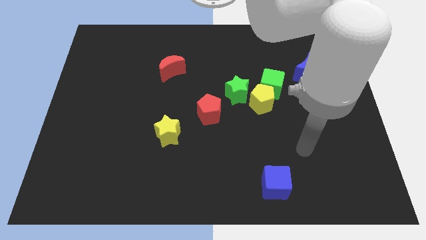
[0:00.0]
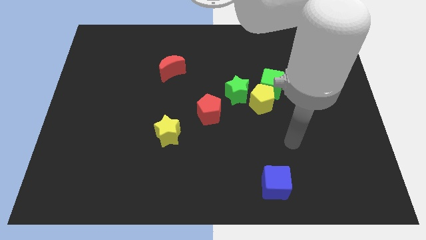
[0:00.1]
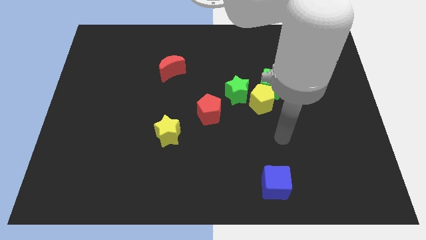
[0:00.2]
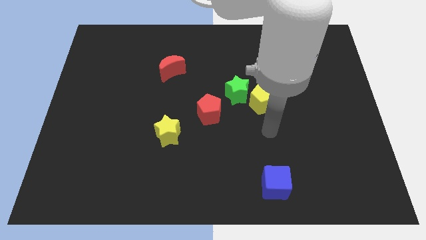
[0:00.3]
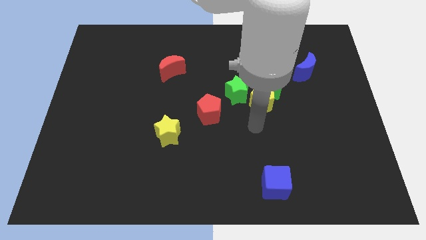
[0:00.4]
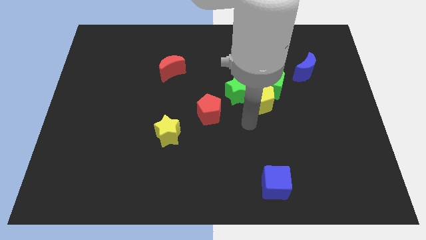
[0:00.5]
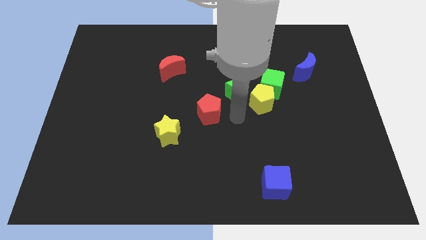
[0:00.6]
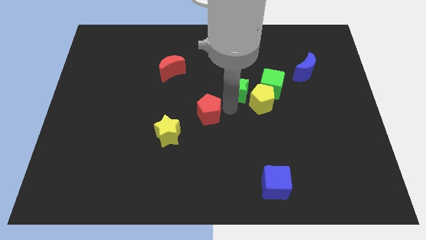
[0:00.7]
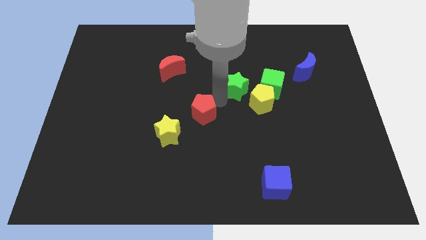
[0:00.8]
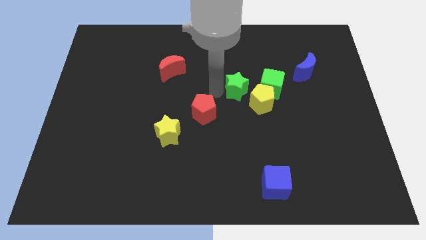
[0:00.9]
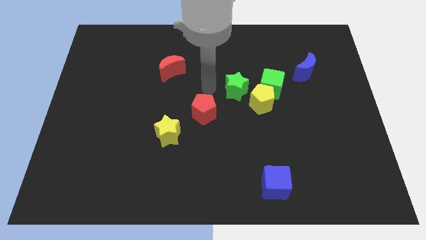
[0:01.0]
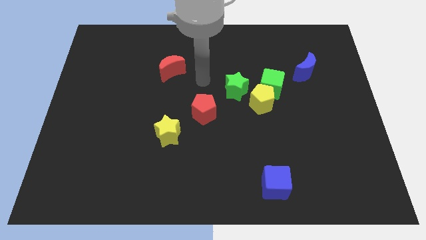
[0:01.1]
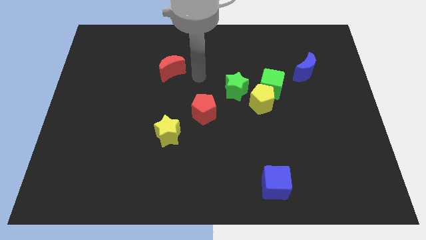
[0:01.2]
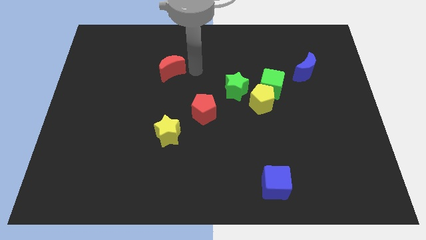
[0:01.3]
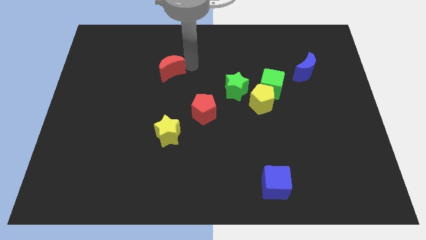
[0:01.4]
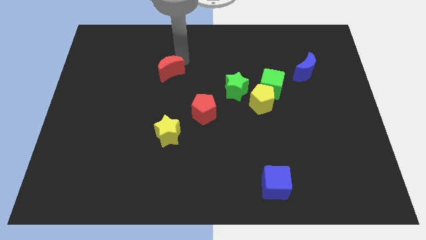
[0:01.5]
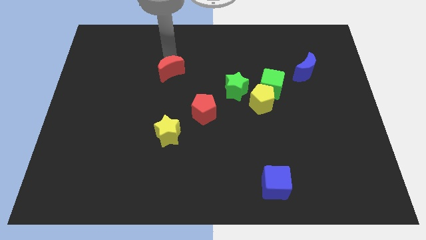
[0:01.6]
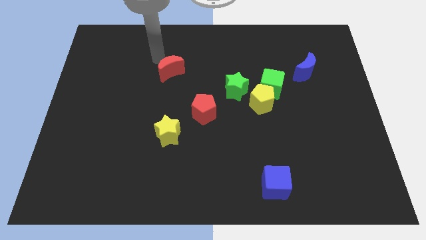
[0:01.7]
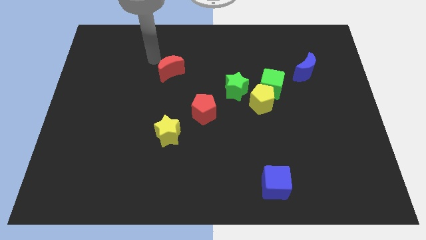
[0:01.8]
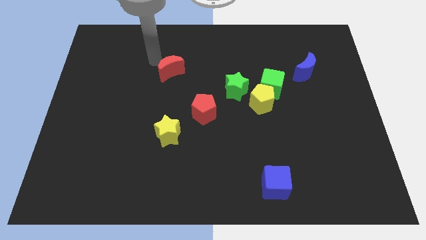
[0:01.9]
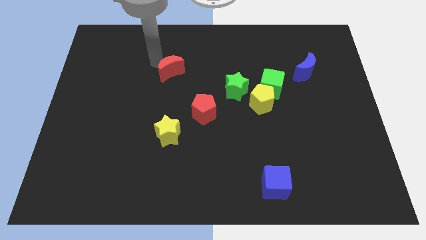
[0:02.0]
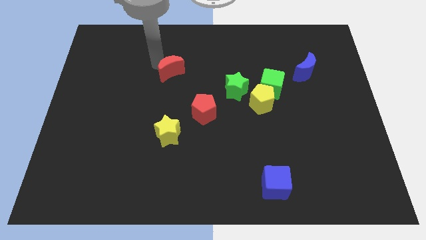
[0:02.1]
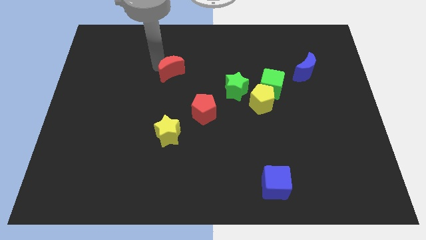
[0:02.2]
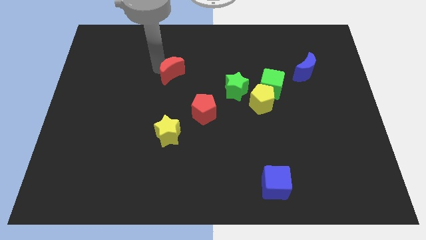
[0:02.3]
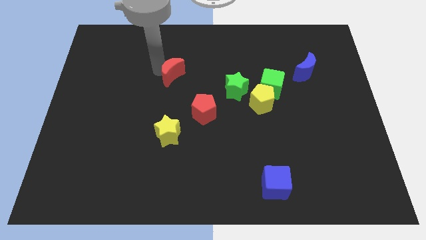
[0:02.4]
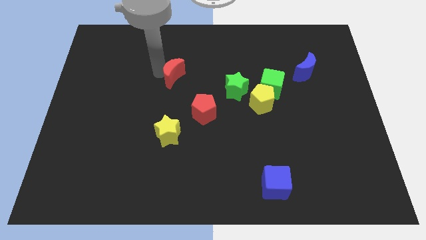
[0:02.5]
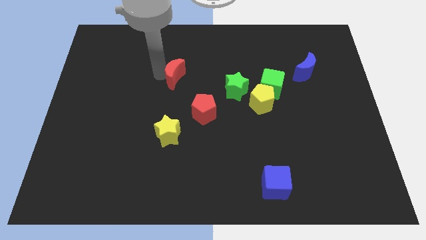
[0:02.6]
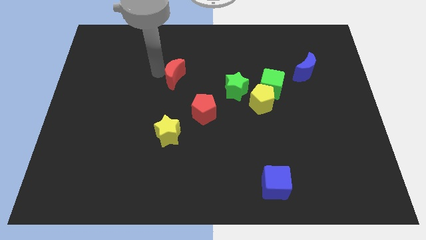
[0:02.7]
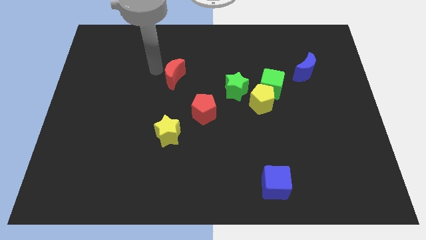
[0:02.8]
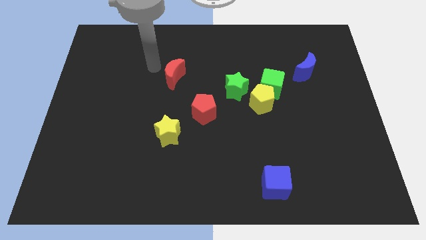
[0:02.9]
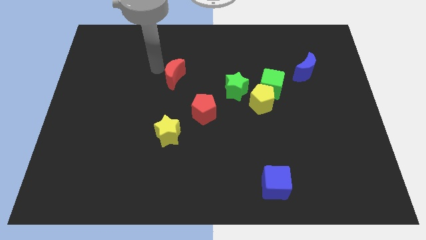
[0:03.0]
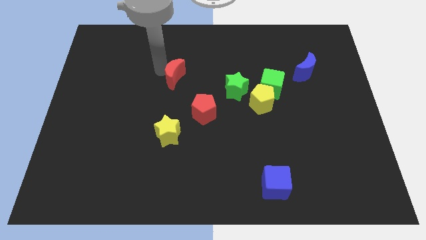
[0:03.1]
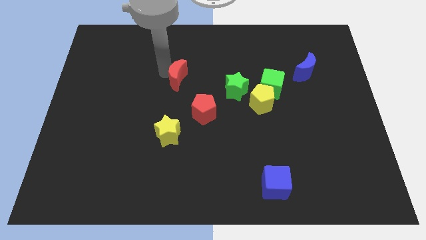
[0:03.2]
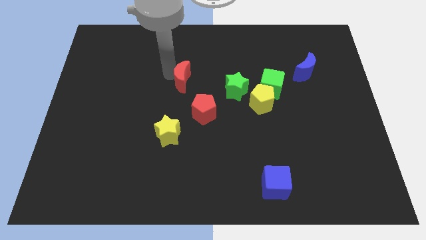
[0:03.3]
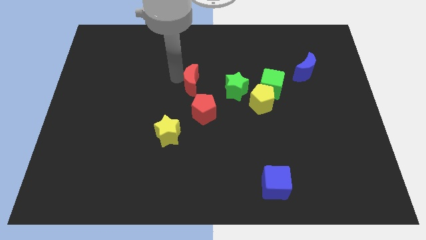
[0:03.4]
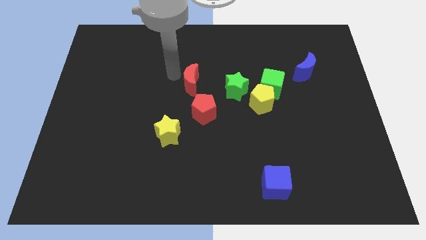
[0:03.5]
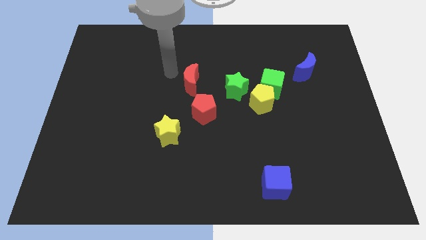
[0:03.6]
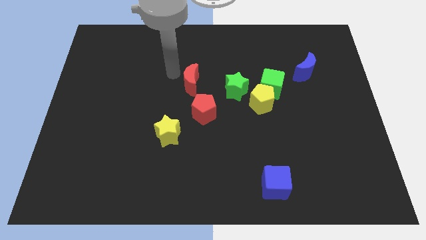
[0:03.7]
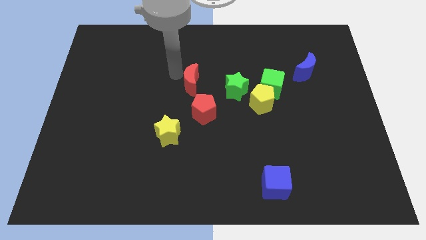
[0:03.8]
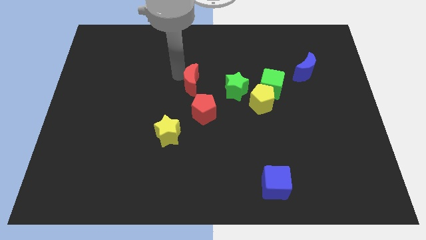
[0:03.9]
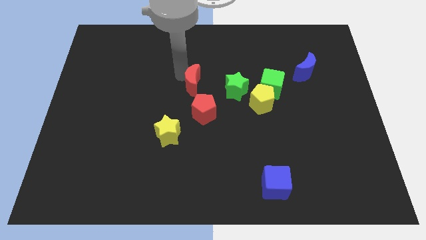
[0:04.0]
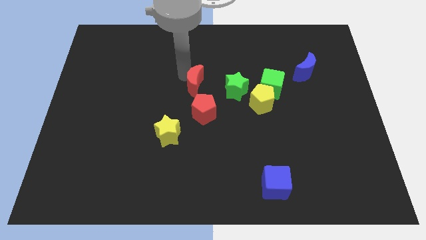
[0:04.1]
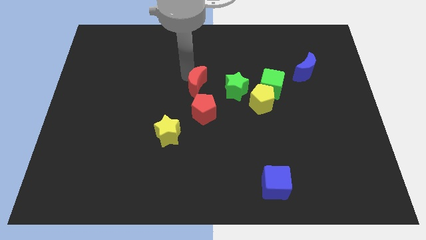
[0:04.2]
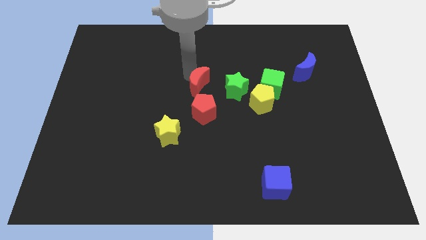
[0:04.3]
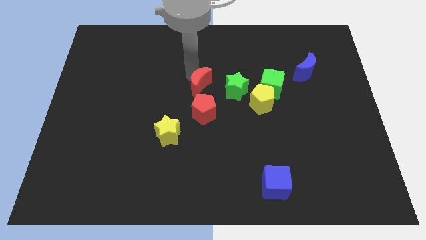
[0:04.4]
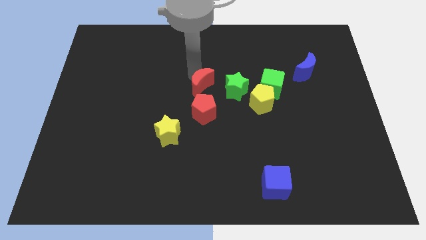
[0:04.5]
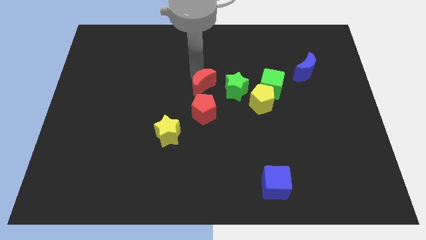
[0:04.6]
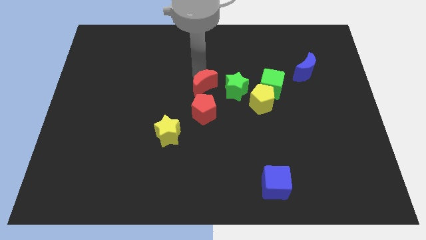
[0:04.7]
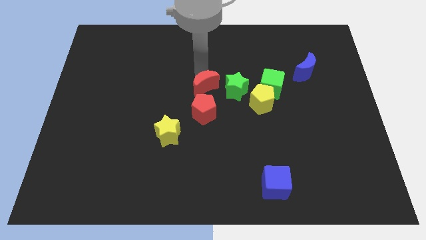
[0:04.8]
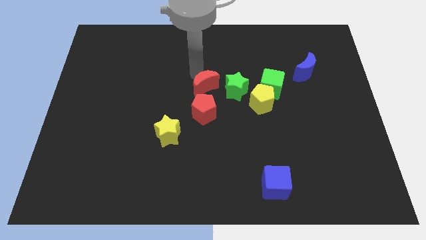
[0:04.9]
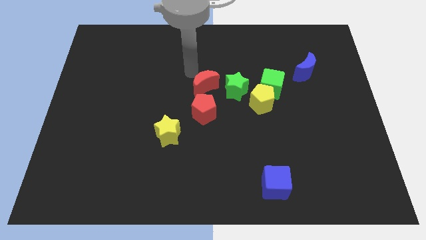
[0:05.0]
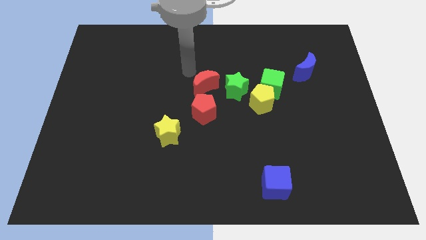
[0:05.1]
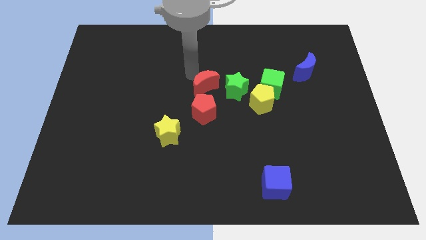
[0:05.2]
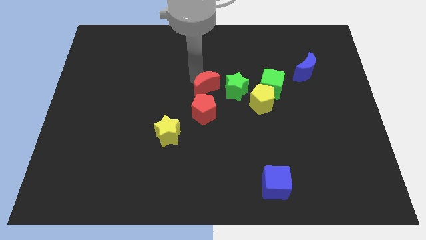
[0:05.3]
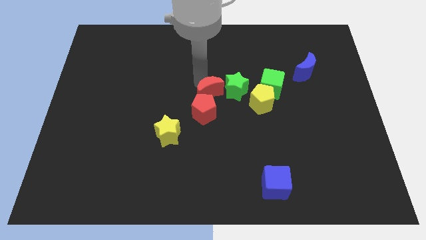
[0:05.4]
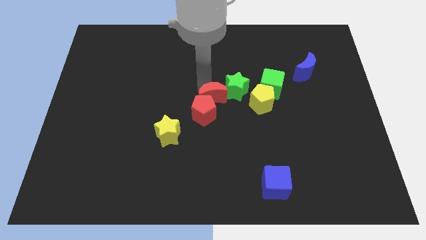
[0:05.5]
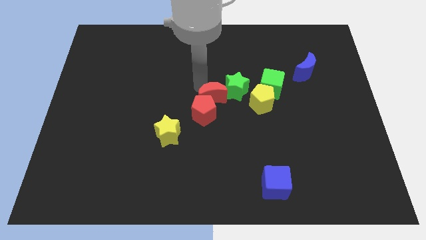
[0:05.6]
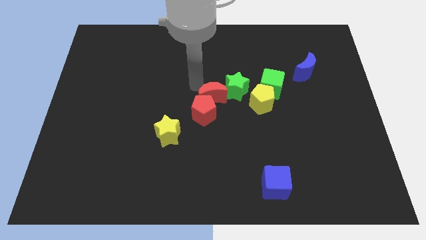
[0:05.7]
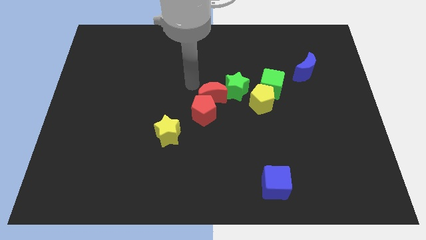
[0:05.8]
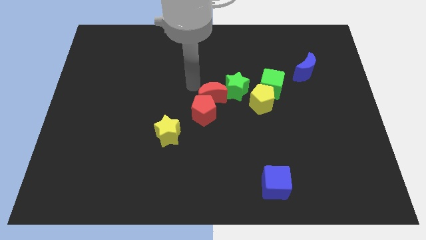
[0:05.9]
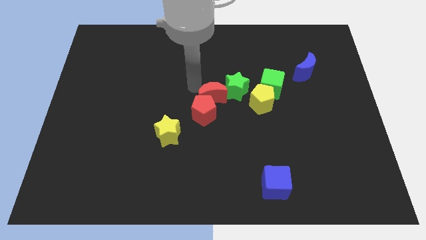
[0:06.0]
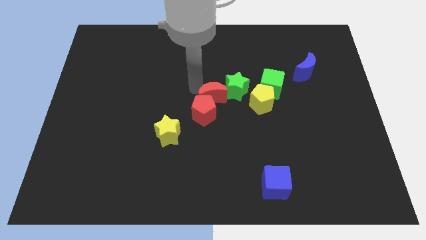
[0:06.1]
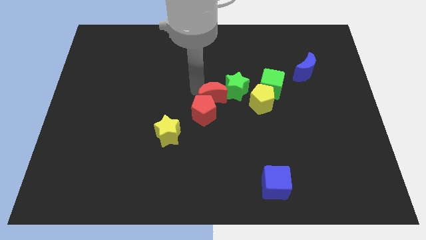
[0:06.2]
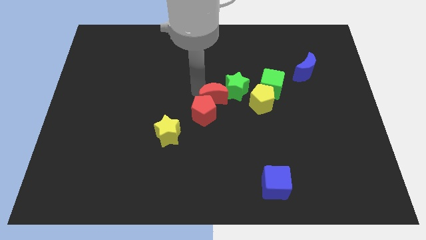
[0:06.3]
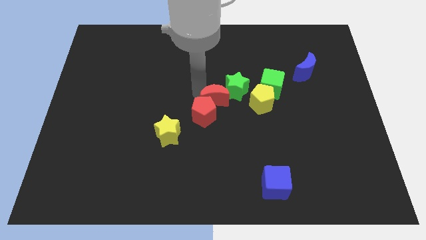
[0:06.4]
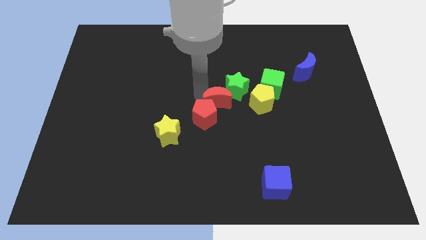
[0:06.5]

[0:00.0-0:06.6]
push the red moon to the bottom side of the green star

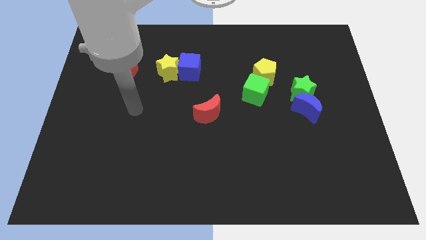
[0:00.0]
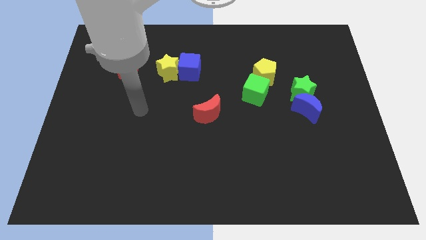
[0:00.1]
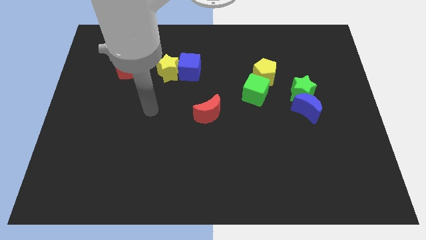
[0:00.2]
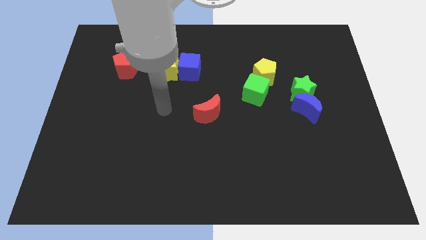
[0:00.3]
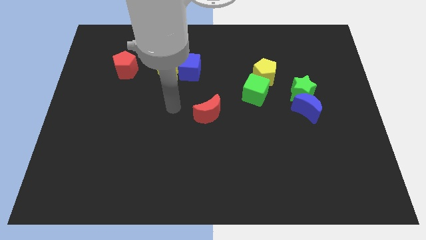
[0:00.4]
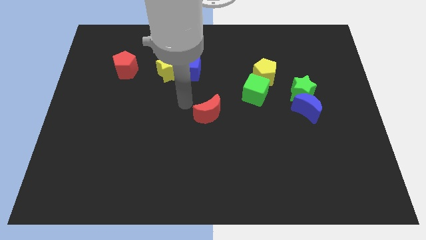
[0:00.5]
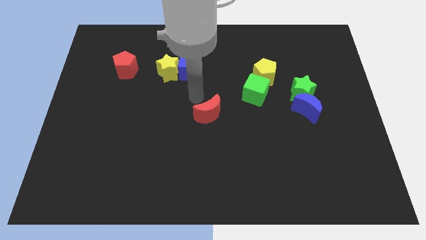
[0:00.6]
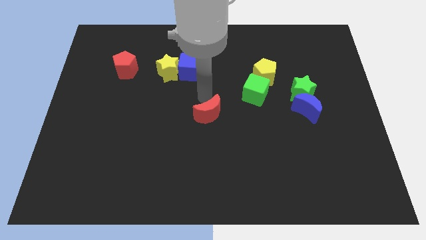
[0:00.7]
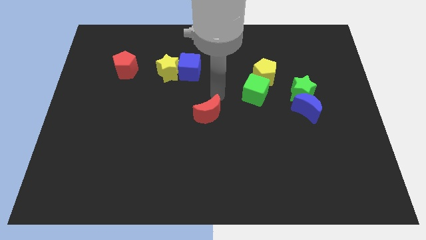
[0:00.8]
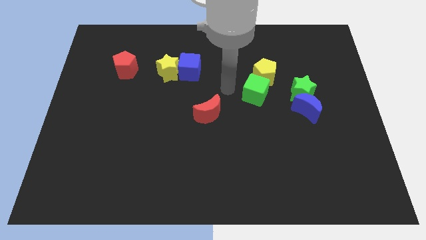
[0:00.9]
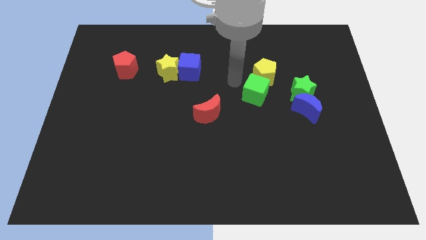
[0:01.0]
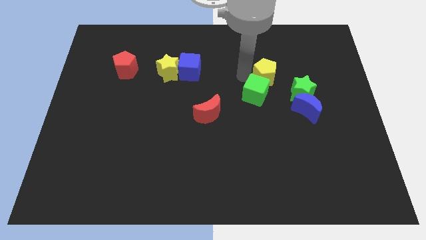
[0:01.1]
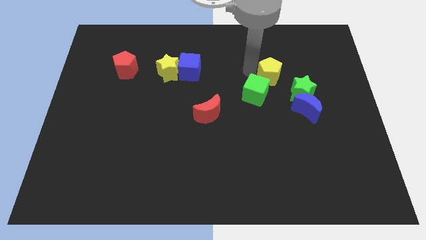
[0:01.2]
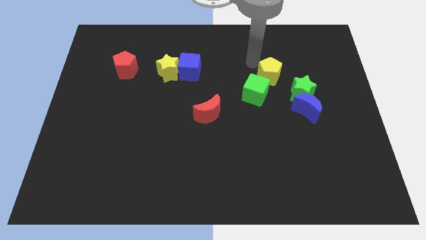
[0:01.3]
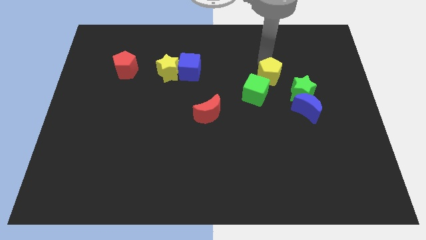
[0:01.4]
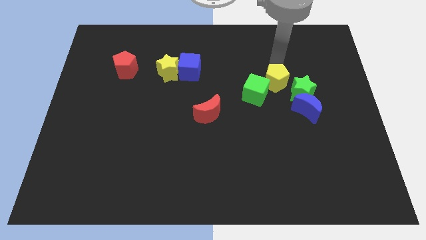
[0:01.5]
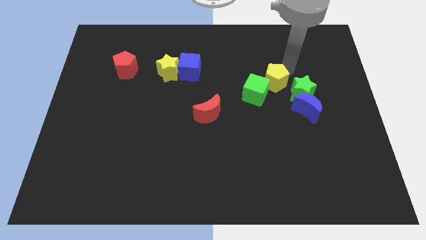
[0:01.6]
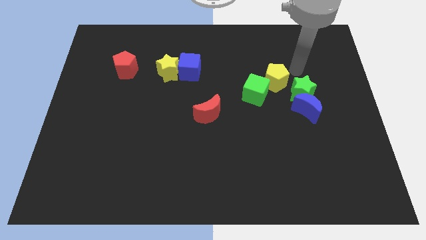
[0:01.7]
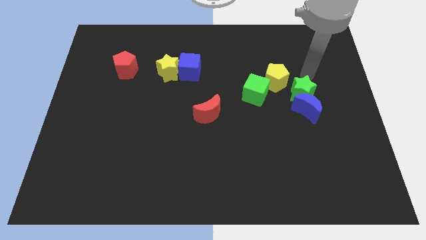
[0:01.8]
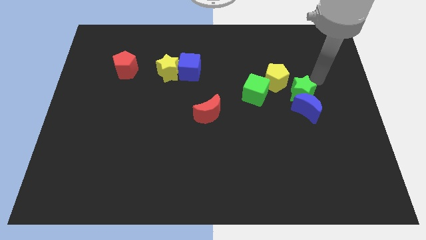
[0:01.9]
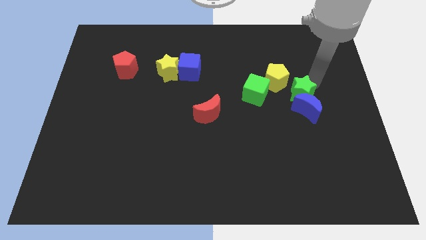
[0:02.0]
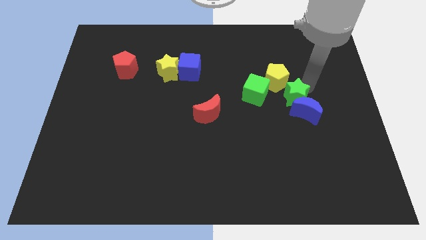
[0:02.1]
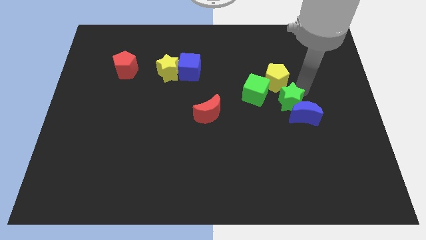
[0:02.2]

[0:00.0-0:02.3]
push the green star to the left side of the blue moon
